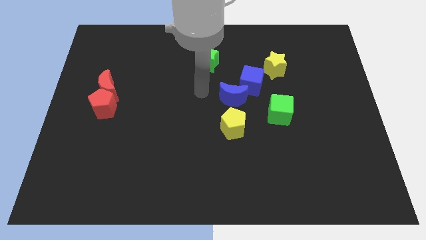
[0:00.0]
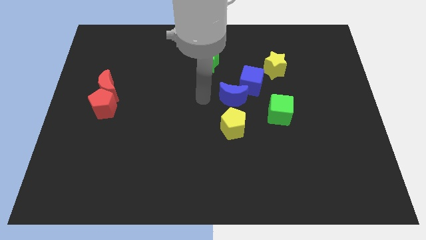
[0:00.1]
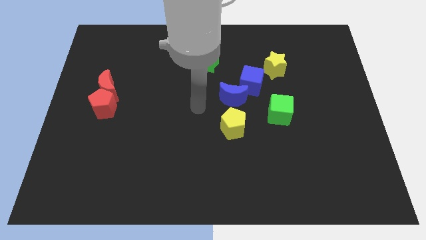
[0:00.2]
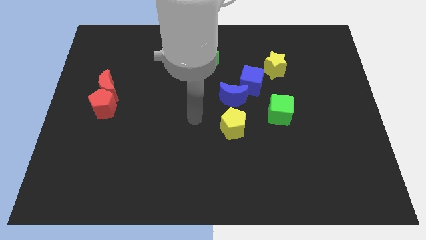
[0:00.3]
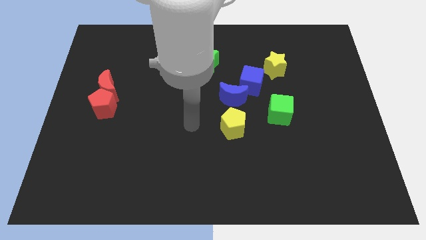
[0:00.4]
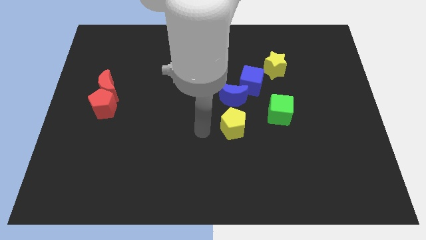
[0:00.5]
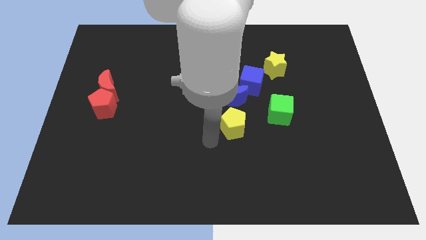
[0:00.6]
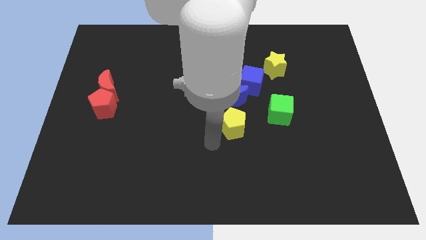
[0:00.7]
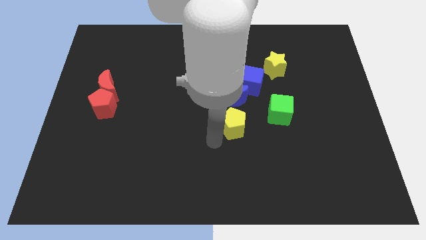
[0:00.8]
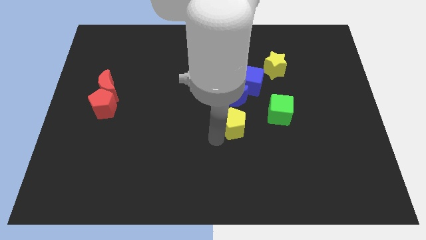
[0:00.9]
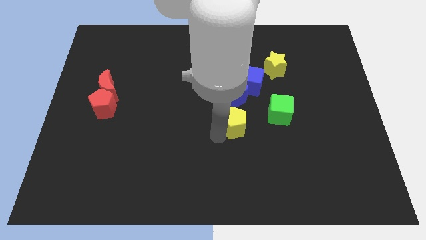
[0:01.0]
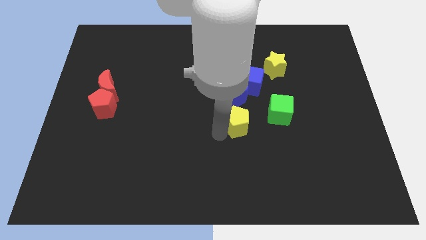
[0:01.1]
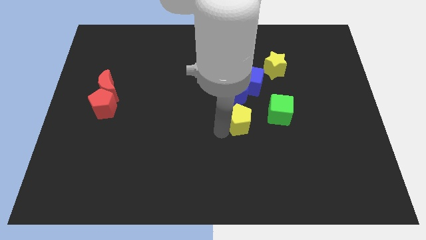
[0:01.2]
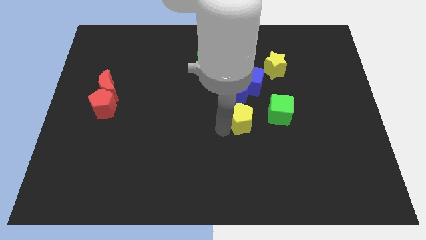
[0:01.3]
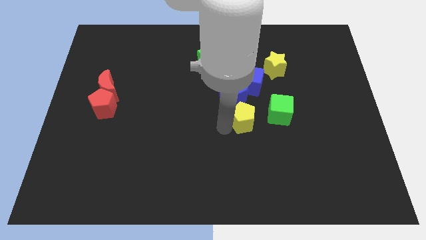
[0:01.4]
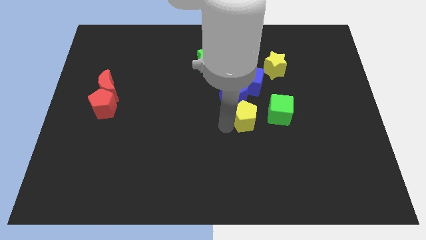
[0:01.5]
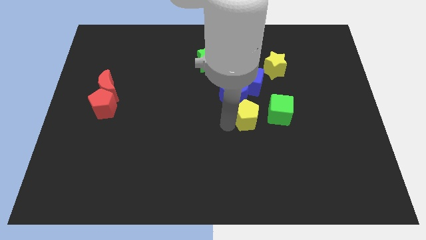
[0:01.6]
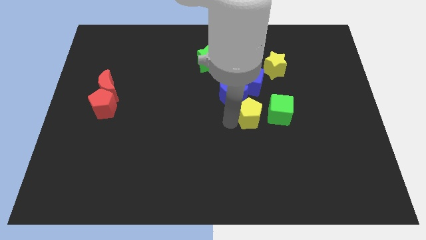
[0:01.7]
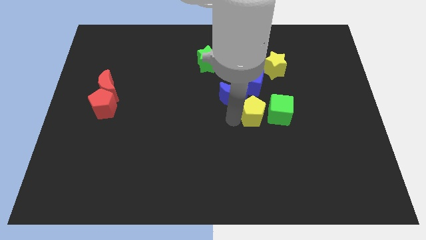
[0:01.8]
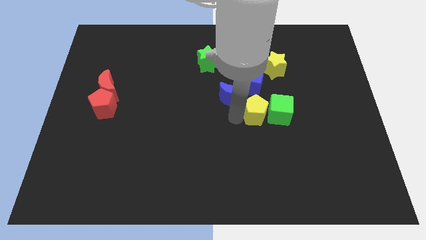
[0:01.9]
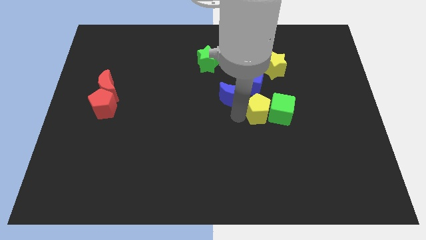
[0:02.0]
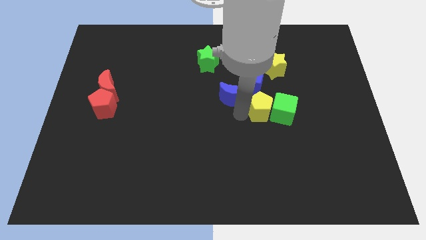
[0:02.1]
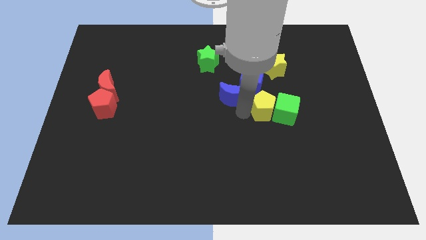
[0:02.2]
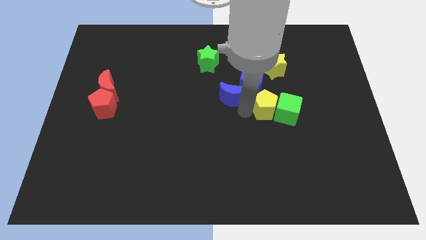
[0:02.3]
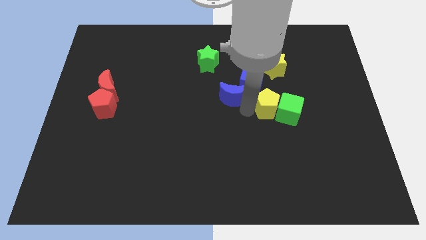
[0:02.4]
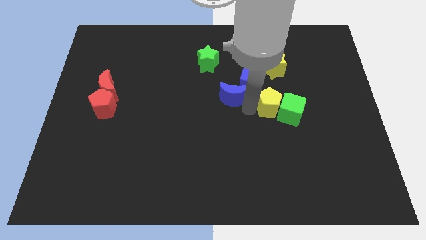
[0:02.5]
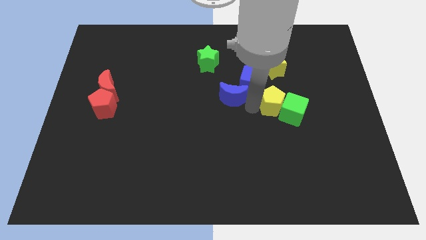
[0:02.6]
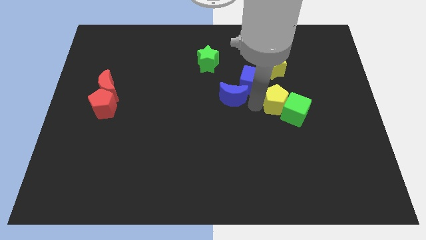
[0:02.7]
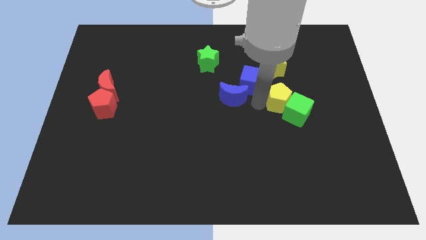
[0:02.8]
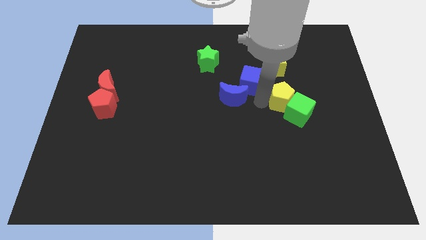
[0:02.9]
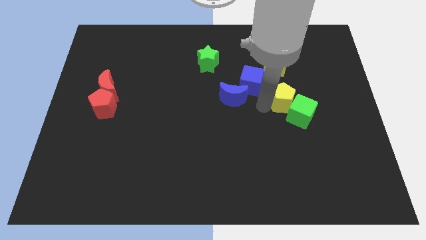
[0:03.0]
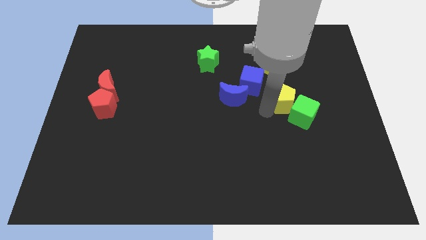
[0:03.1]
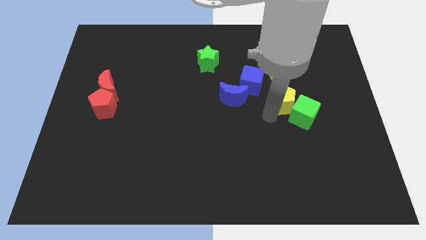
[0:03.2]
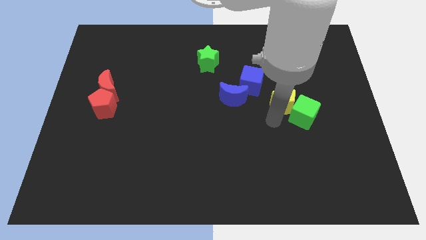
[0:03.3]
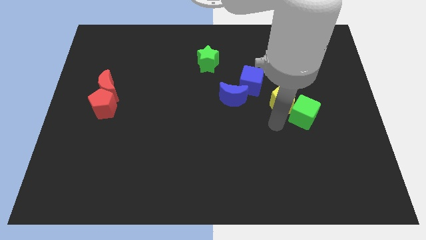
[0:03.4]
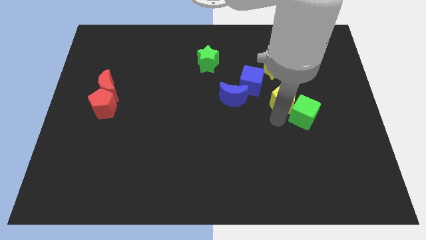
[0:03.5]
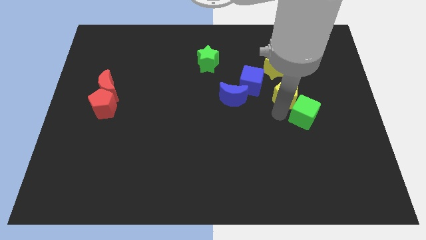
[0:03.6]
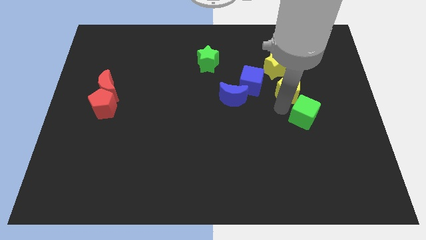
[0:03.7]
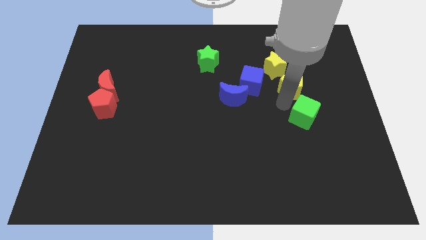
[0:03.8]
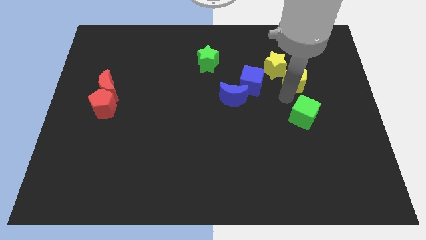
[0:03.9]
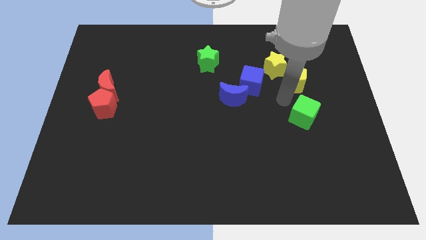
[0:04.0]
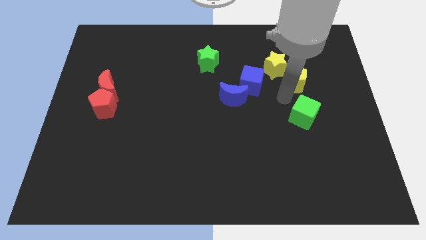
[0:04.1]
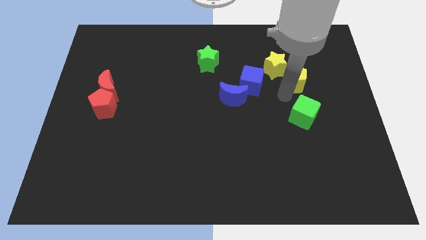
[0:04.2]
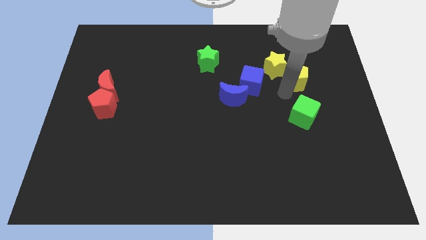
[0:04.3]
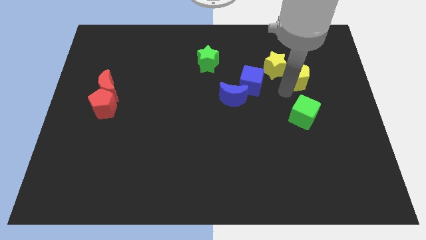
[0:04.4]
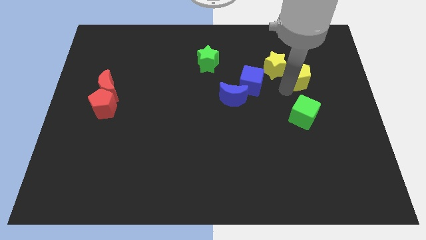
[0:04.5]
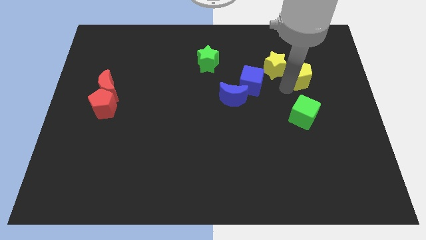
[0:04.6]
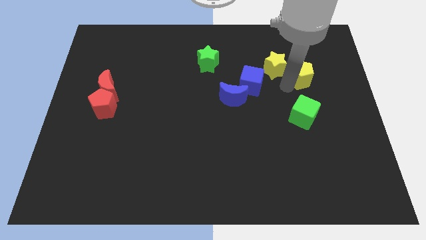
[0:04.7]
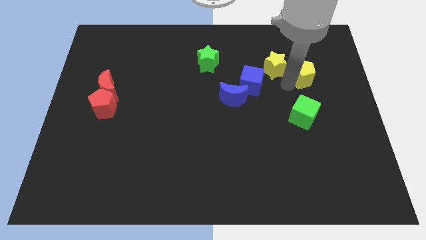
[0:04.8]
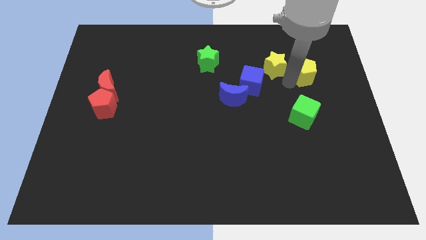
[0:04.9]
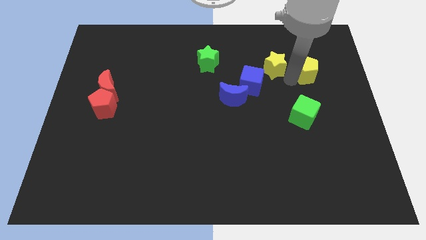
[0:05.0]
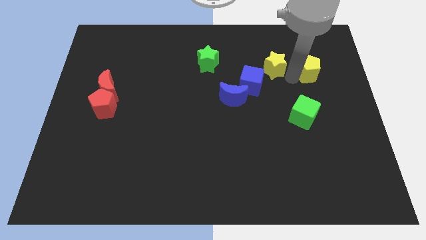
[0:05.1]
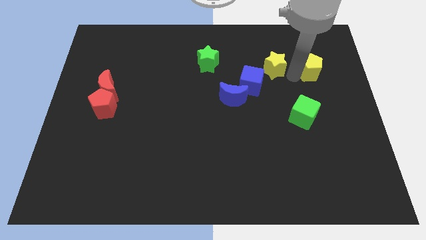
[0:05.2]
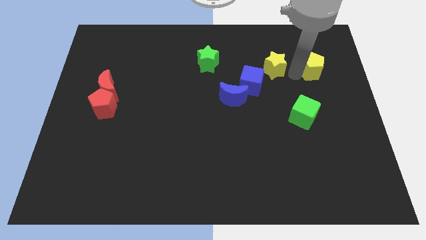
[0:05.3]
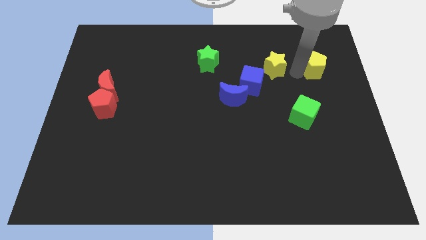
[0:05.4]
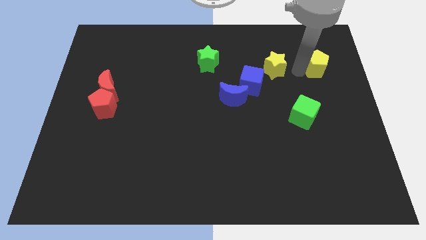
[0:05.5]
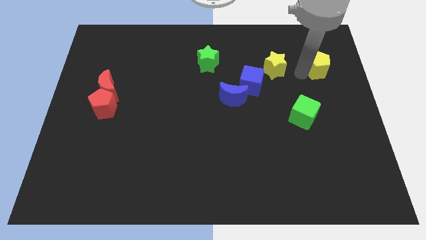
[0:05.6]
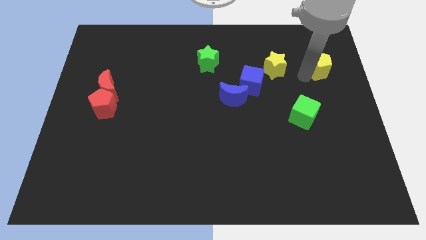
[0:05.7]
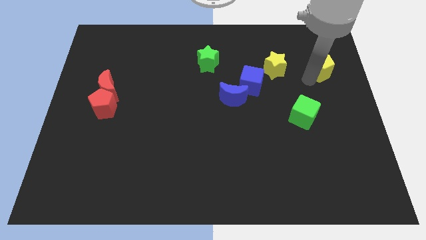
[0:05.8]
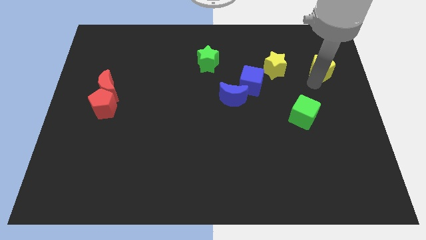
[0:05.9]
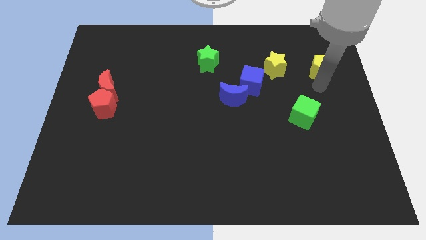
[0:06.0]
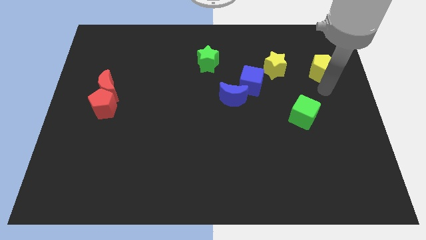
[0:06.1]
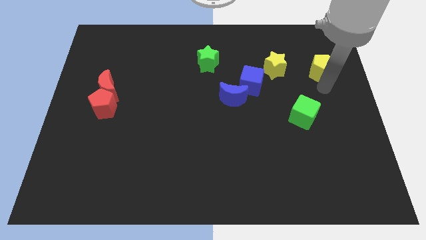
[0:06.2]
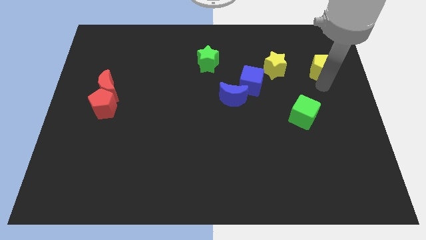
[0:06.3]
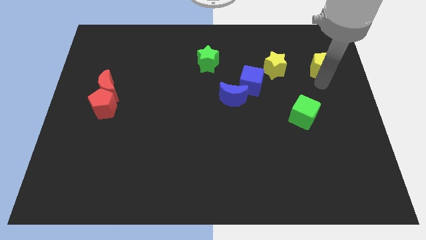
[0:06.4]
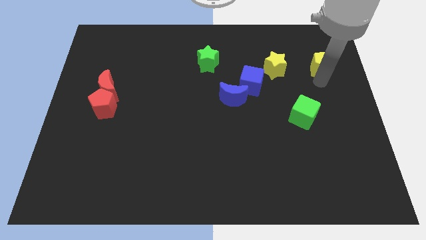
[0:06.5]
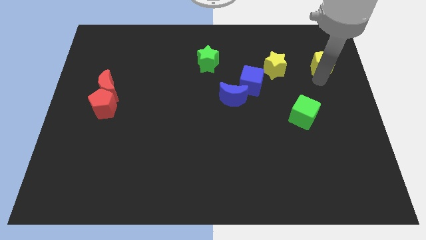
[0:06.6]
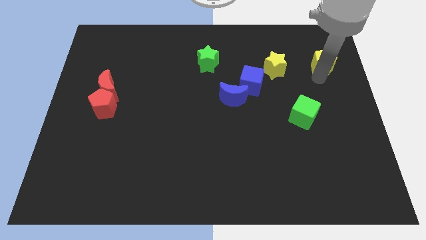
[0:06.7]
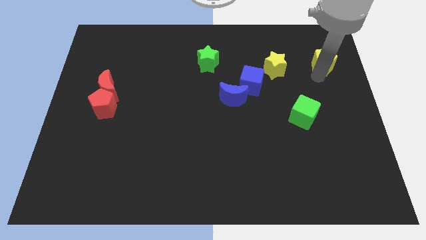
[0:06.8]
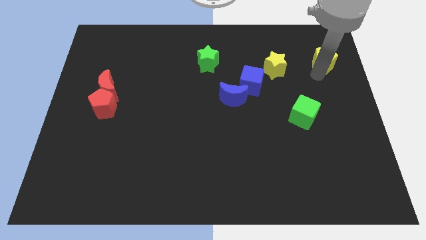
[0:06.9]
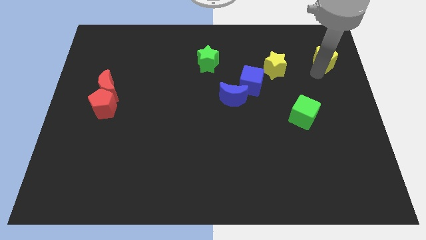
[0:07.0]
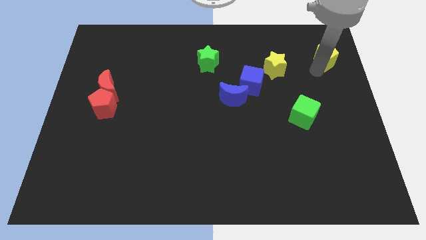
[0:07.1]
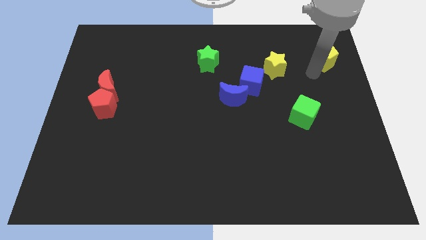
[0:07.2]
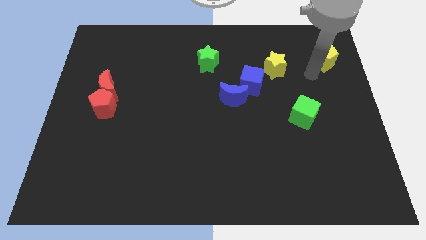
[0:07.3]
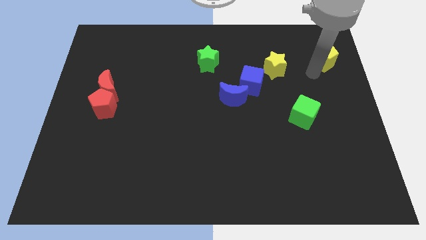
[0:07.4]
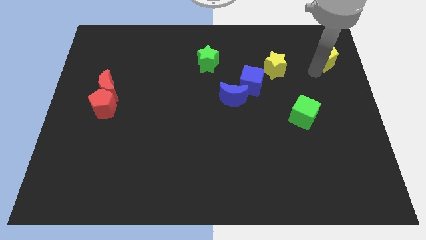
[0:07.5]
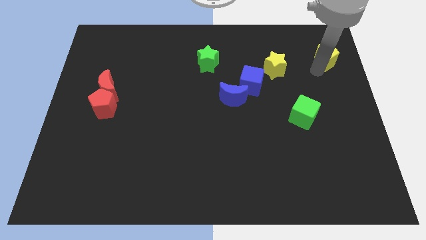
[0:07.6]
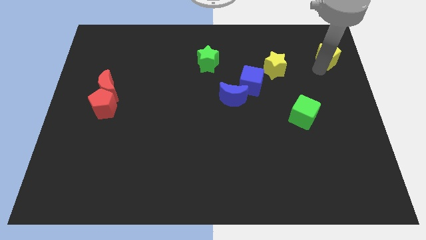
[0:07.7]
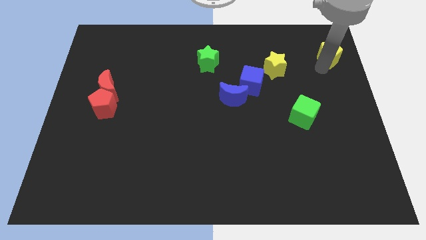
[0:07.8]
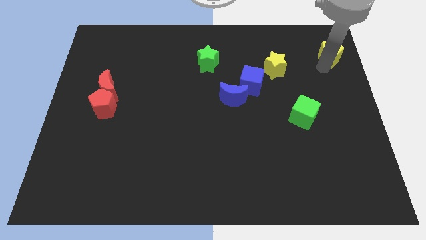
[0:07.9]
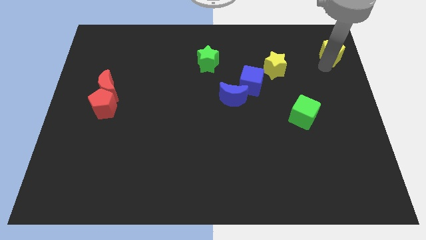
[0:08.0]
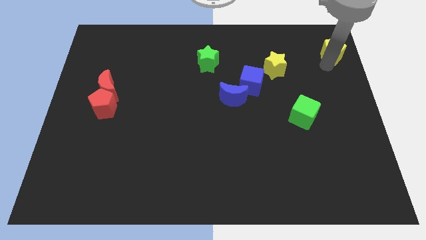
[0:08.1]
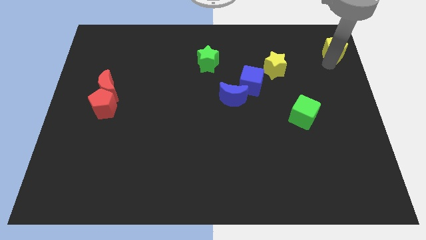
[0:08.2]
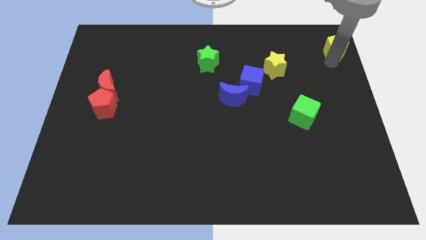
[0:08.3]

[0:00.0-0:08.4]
put the yellow pentagon to the upper right corner
